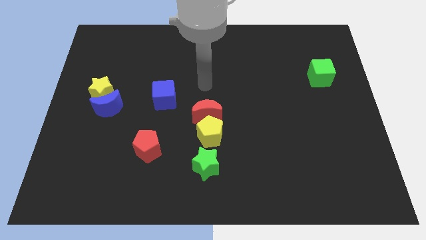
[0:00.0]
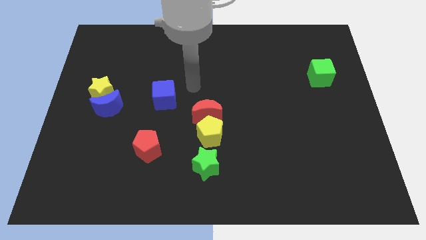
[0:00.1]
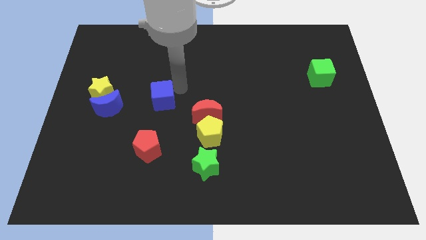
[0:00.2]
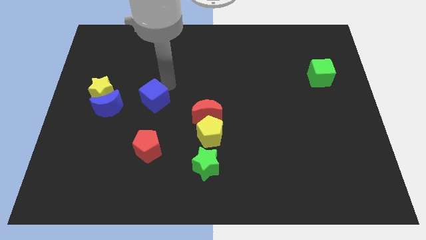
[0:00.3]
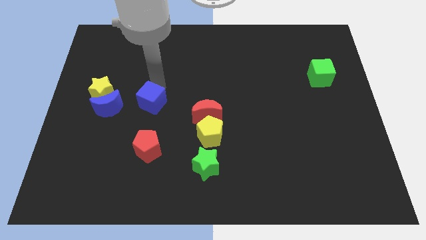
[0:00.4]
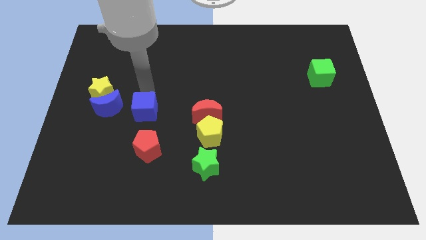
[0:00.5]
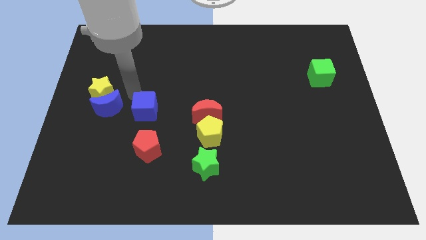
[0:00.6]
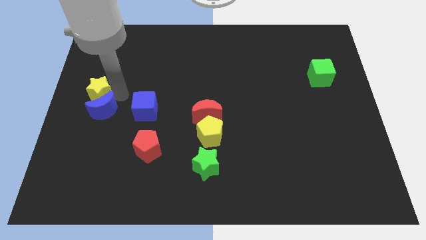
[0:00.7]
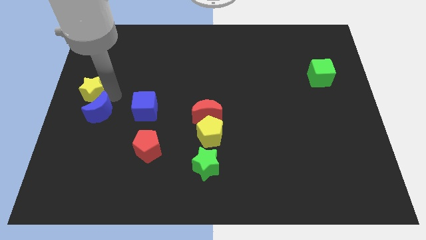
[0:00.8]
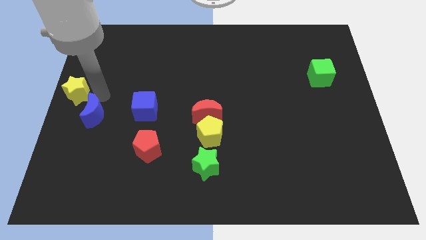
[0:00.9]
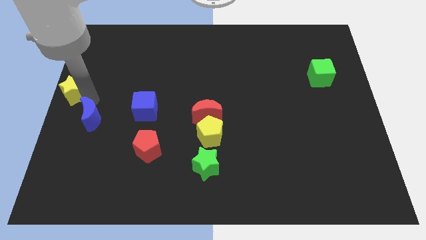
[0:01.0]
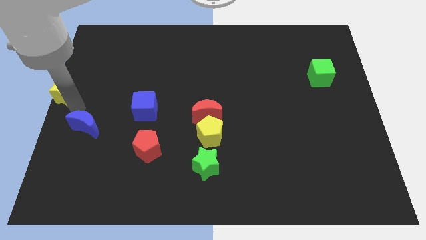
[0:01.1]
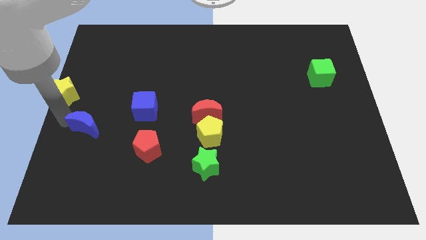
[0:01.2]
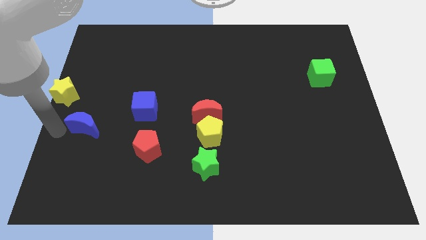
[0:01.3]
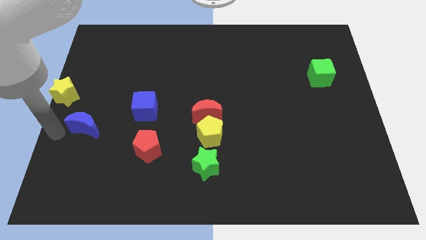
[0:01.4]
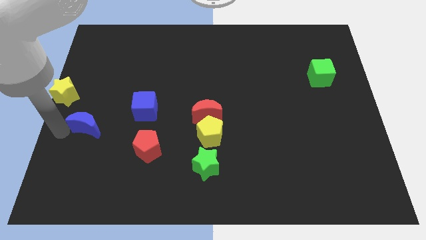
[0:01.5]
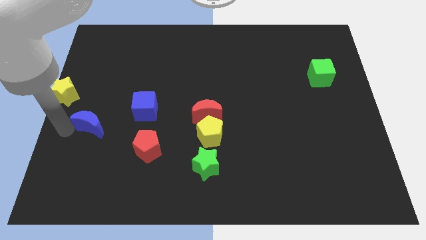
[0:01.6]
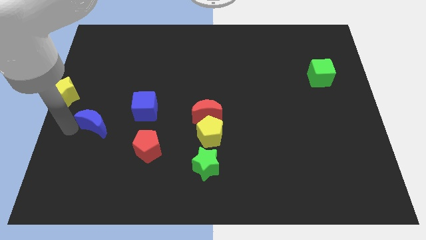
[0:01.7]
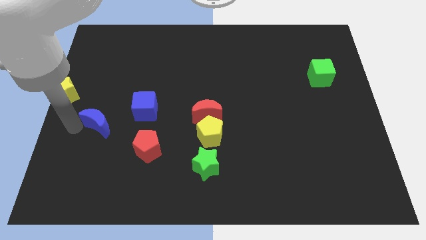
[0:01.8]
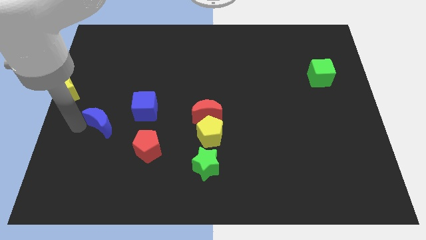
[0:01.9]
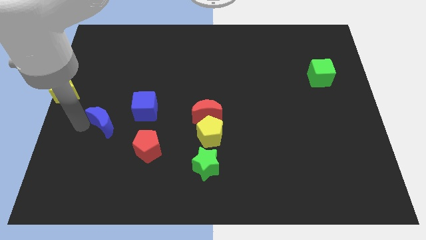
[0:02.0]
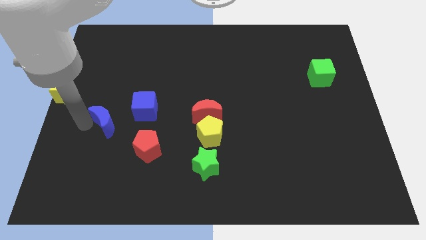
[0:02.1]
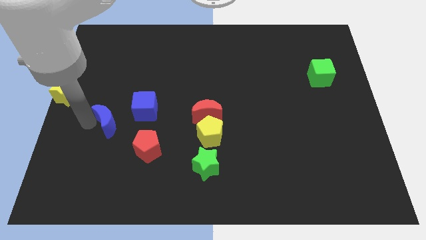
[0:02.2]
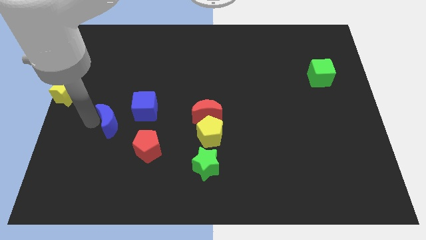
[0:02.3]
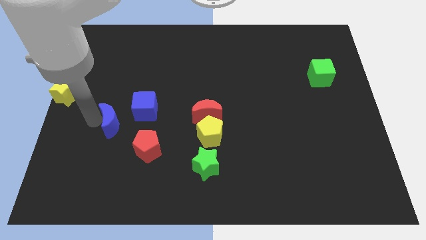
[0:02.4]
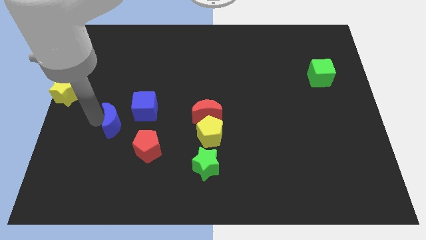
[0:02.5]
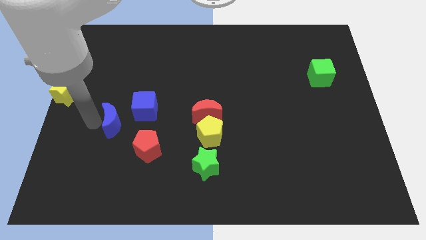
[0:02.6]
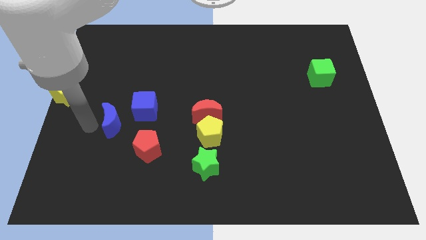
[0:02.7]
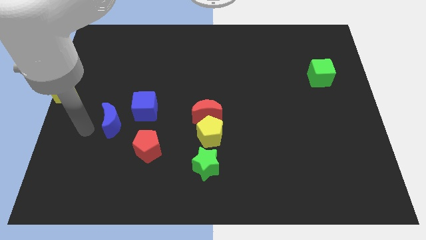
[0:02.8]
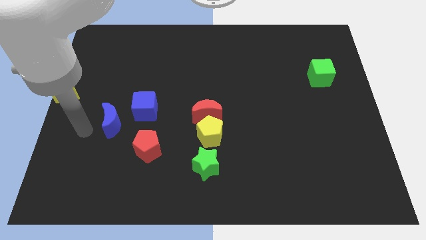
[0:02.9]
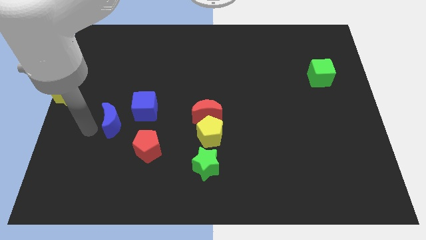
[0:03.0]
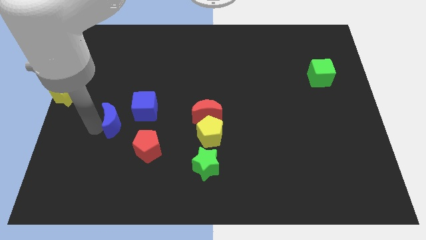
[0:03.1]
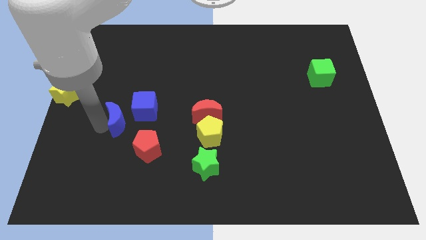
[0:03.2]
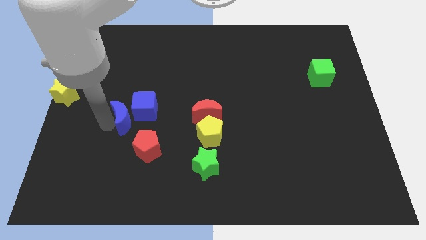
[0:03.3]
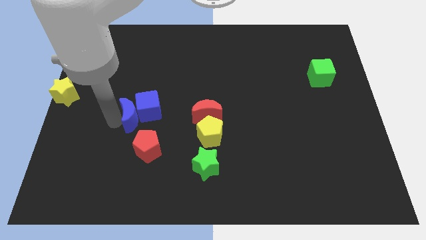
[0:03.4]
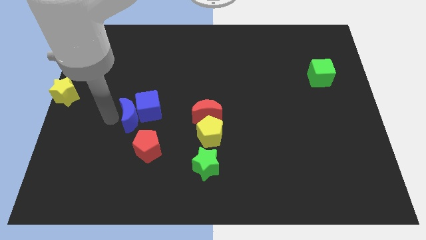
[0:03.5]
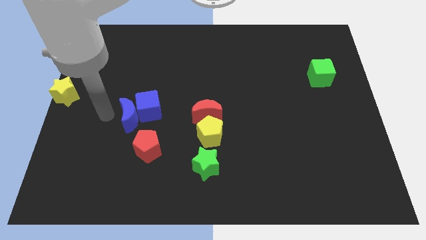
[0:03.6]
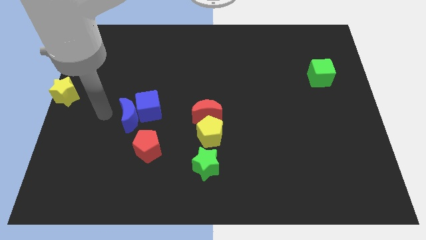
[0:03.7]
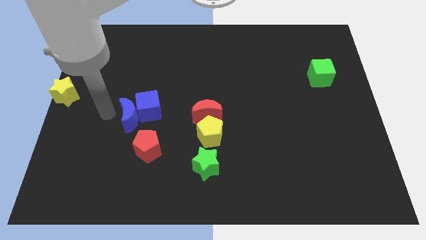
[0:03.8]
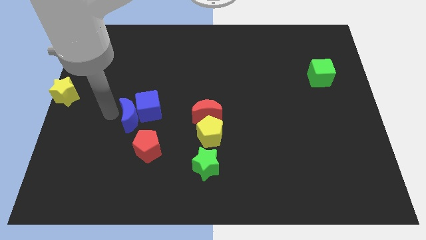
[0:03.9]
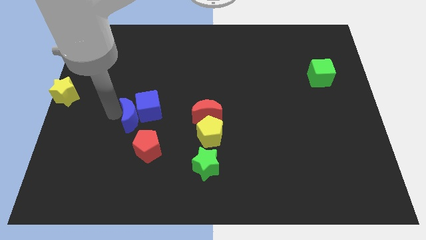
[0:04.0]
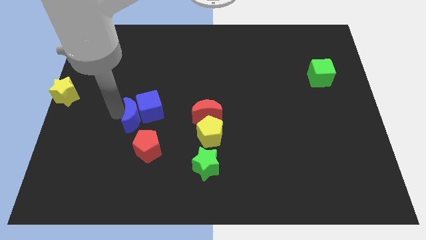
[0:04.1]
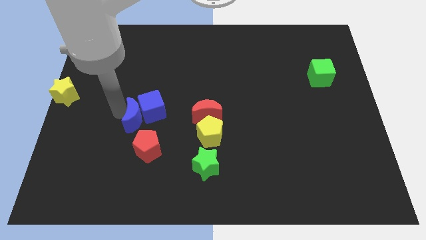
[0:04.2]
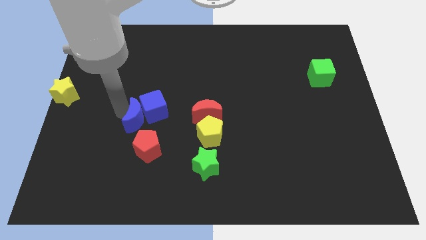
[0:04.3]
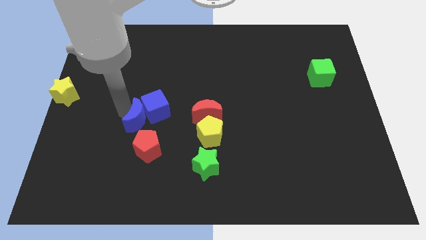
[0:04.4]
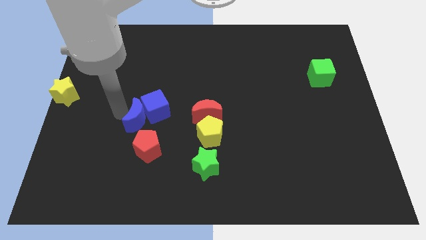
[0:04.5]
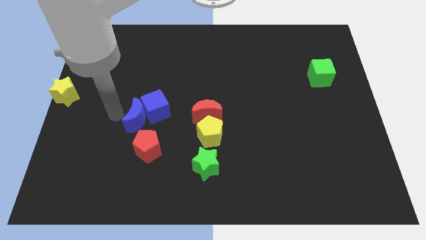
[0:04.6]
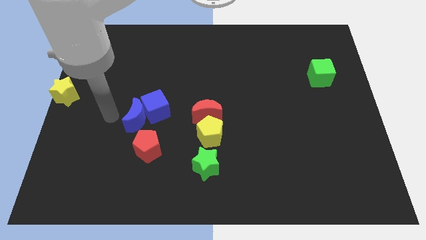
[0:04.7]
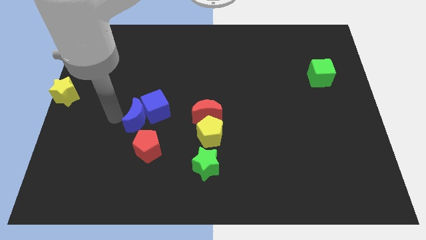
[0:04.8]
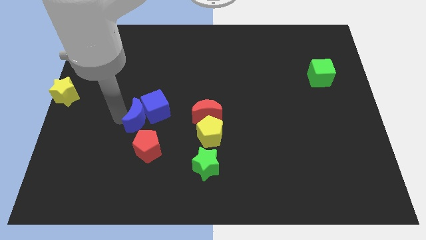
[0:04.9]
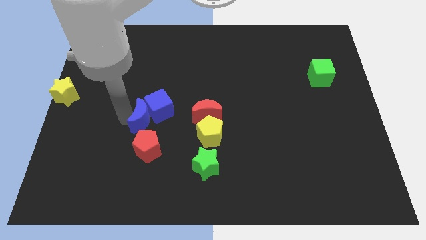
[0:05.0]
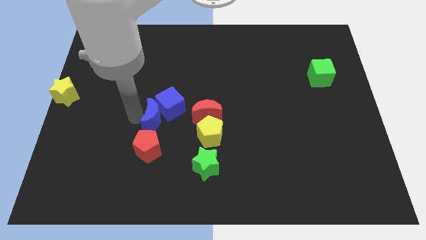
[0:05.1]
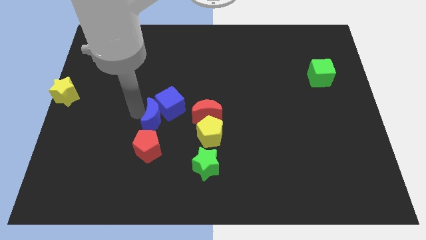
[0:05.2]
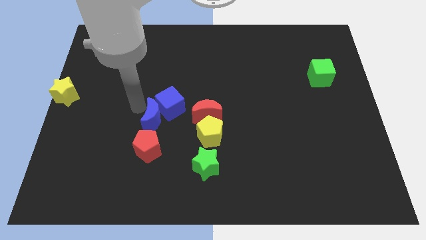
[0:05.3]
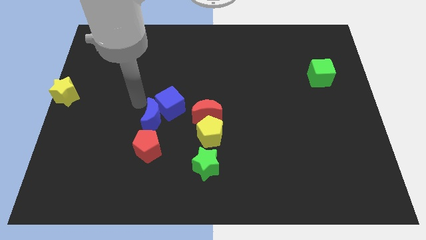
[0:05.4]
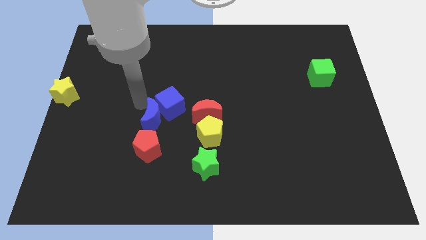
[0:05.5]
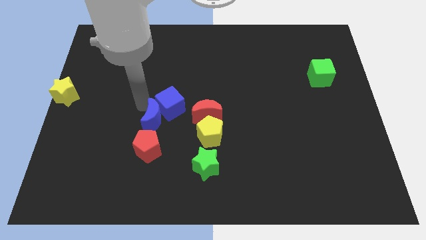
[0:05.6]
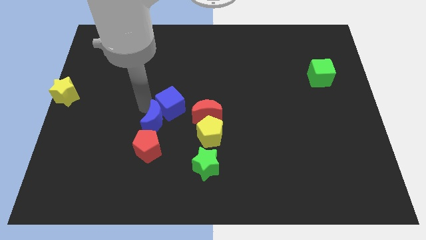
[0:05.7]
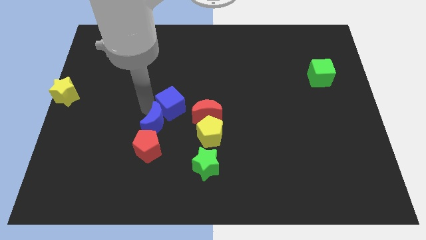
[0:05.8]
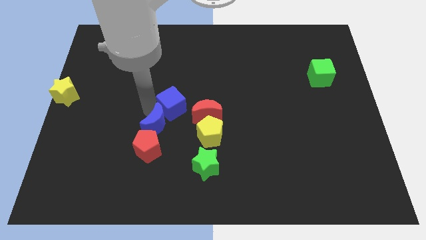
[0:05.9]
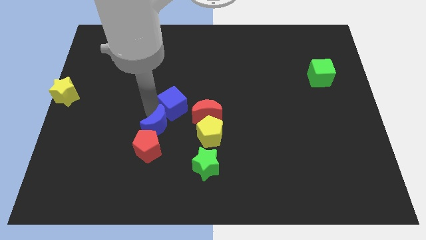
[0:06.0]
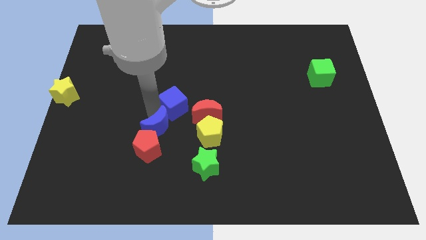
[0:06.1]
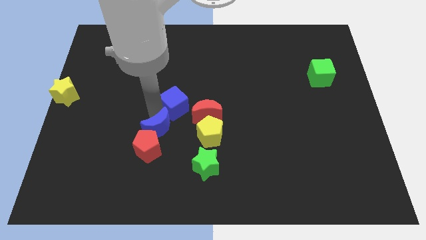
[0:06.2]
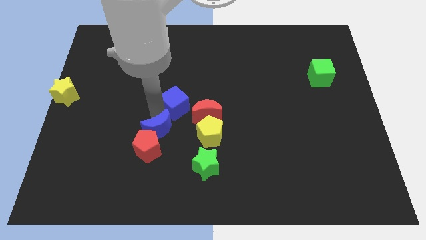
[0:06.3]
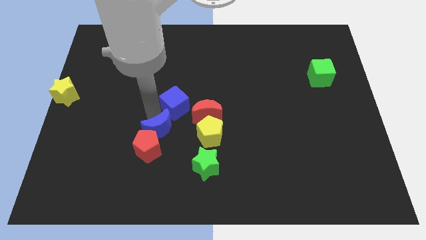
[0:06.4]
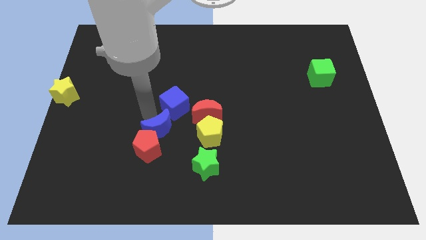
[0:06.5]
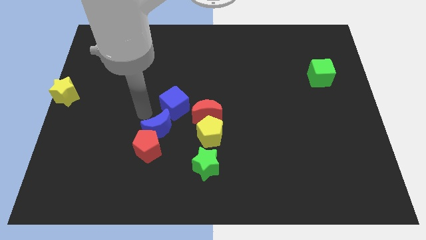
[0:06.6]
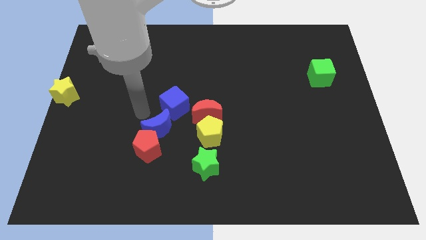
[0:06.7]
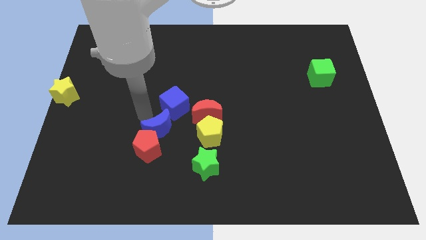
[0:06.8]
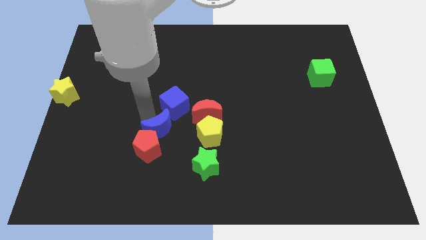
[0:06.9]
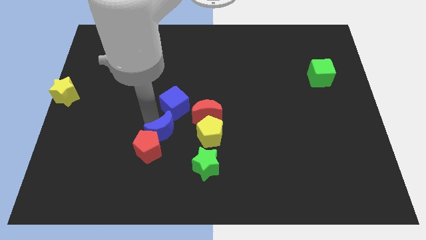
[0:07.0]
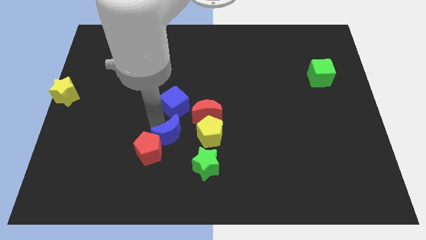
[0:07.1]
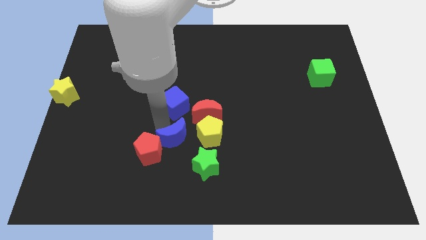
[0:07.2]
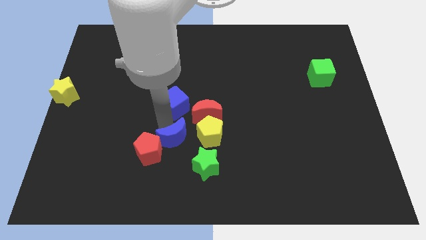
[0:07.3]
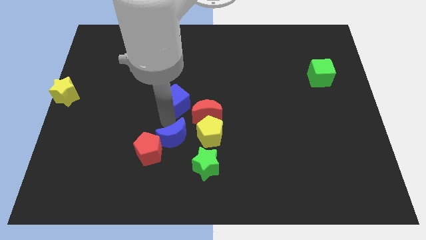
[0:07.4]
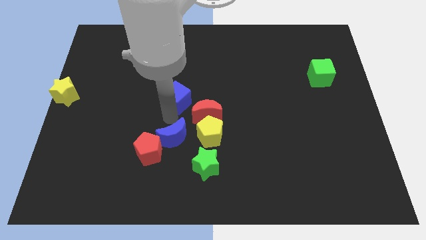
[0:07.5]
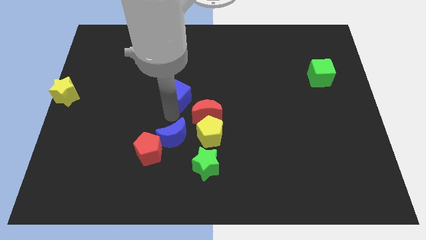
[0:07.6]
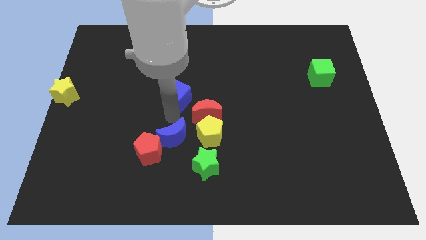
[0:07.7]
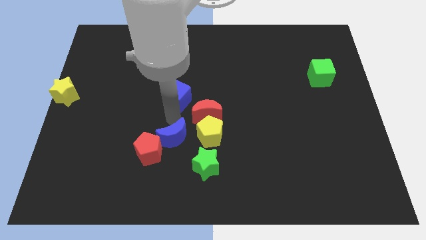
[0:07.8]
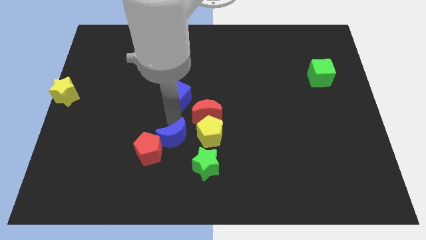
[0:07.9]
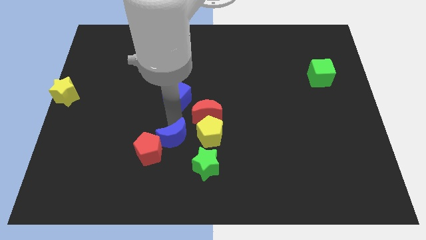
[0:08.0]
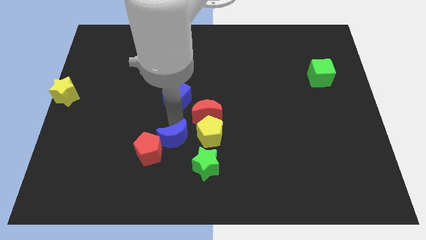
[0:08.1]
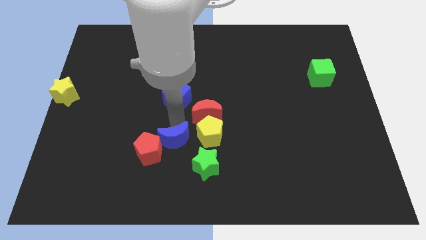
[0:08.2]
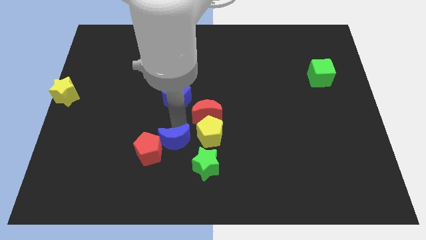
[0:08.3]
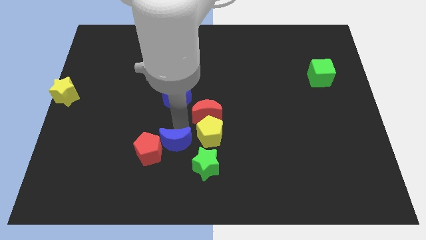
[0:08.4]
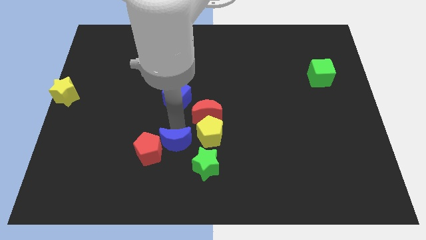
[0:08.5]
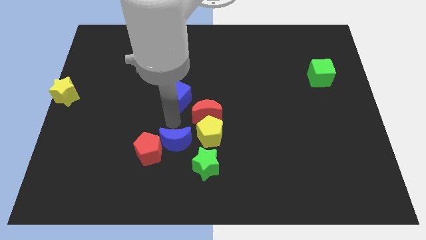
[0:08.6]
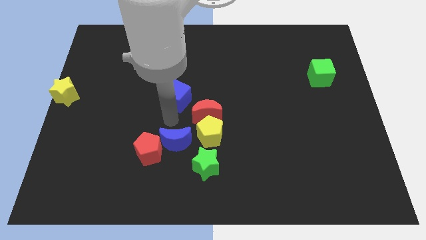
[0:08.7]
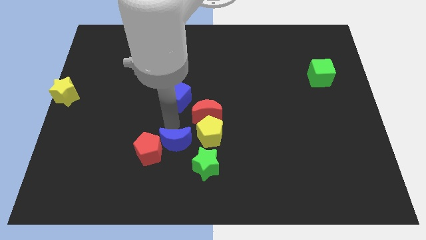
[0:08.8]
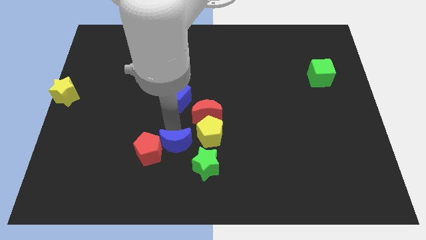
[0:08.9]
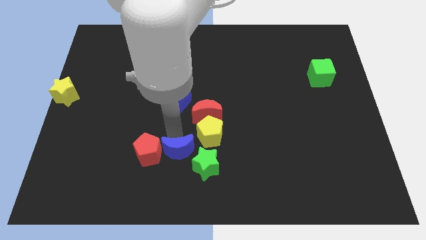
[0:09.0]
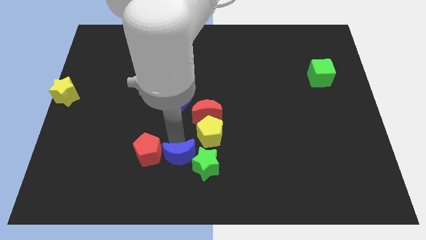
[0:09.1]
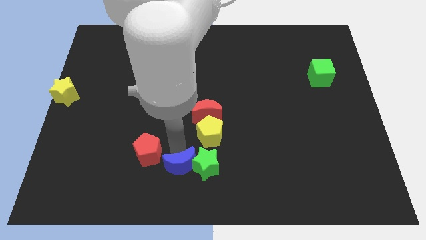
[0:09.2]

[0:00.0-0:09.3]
push the blue moon to the bottom side
